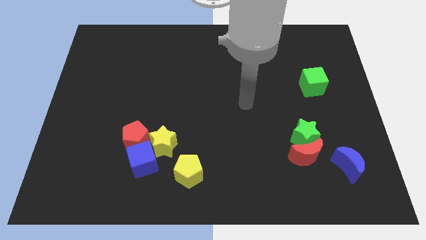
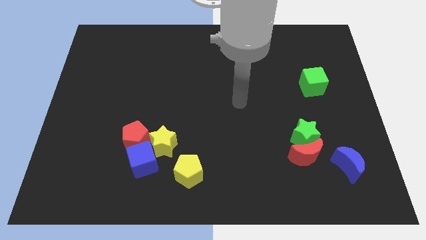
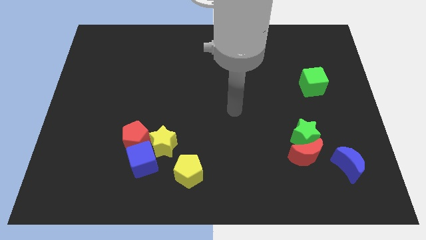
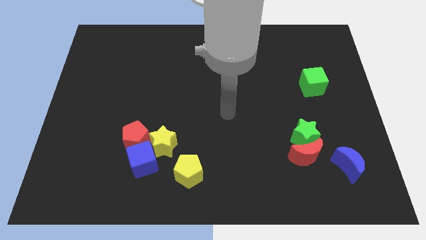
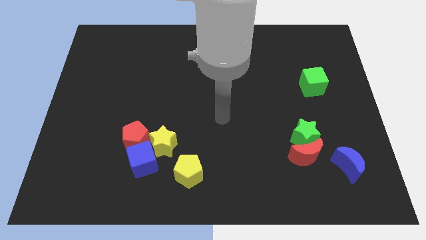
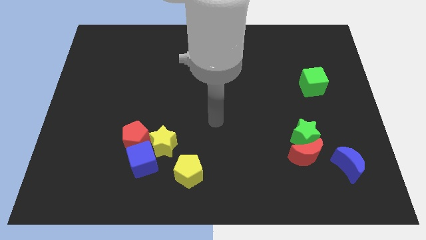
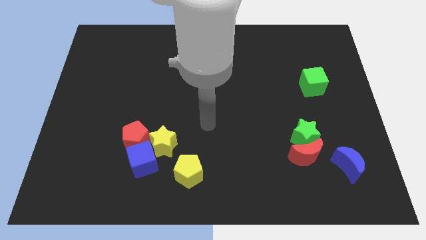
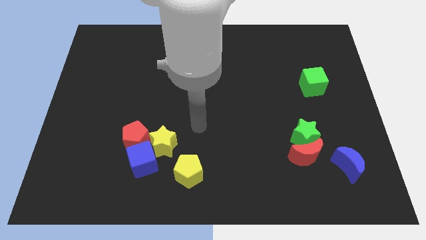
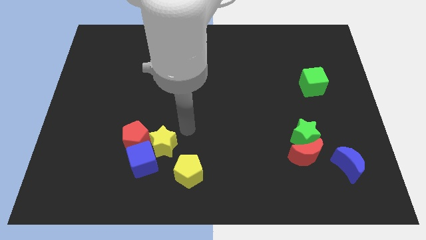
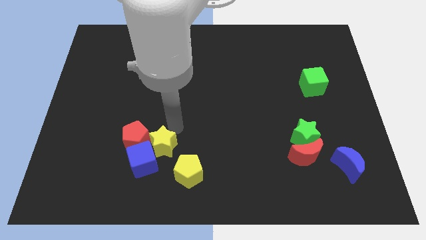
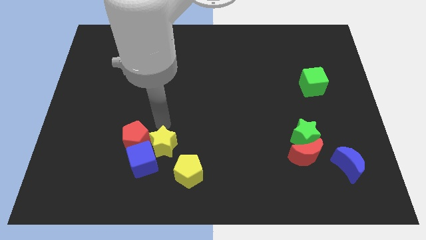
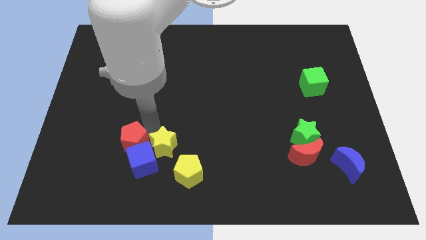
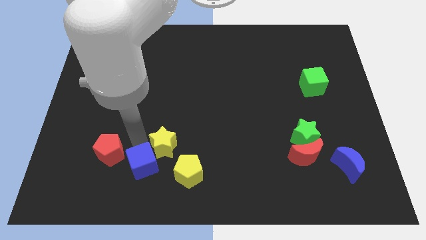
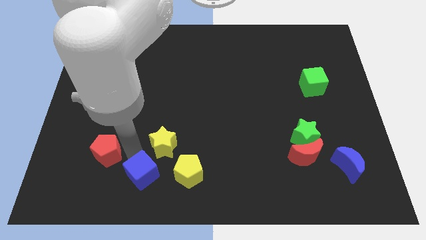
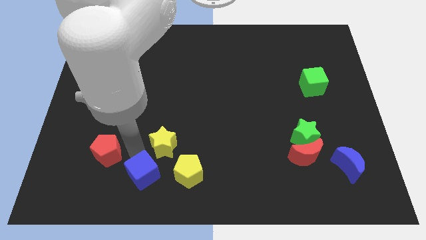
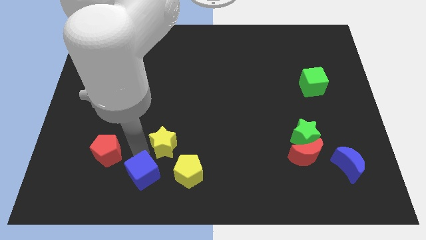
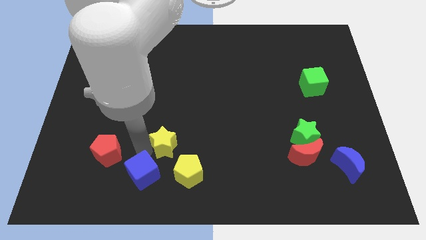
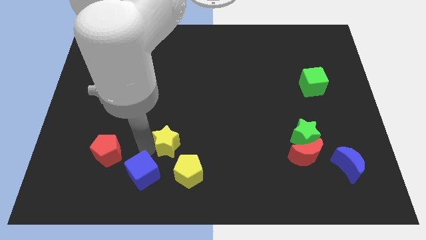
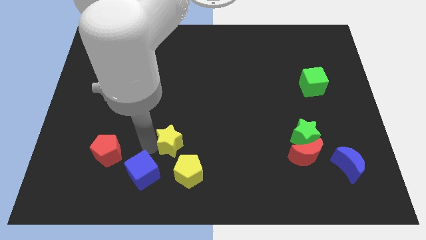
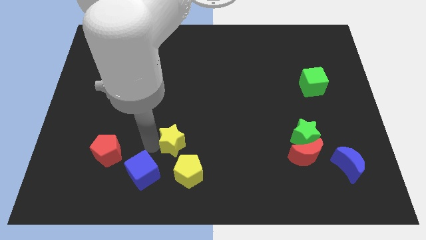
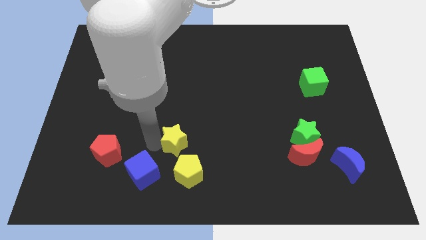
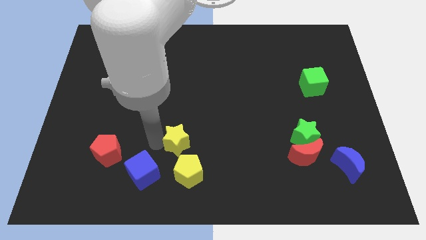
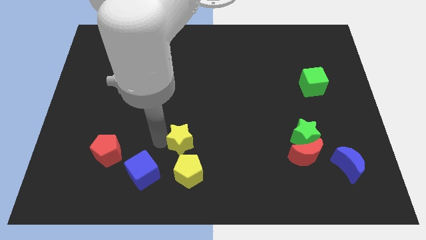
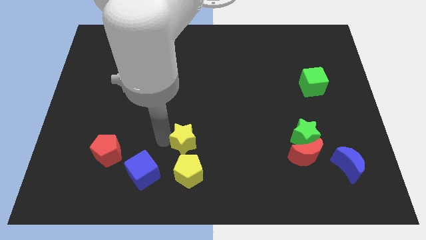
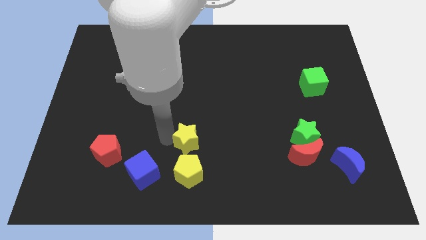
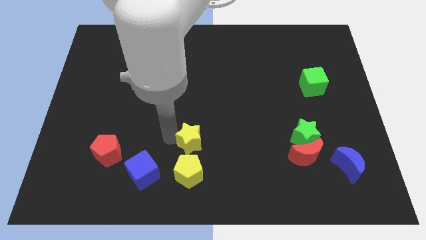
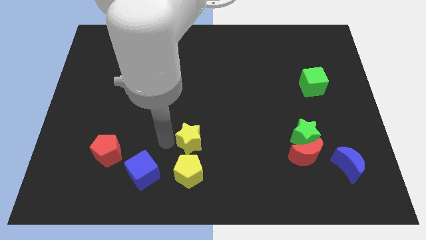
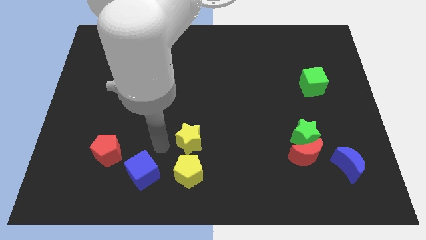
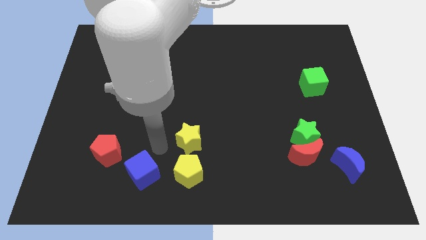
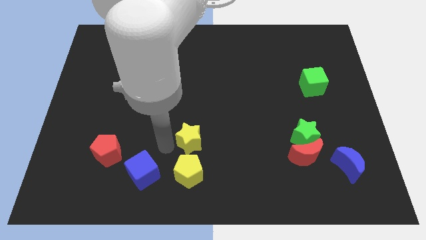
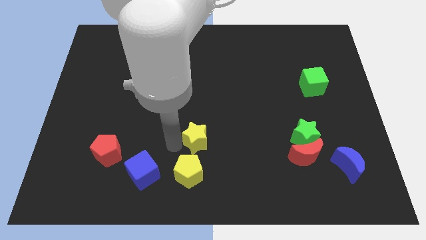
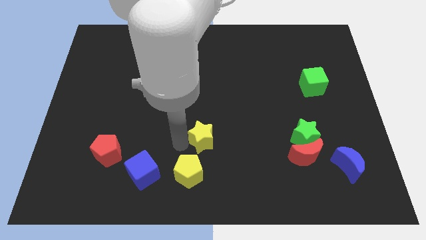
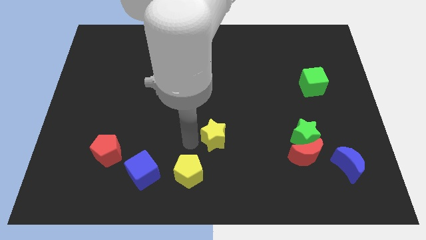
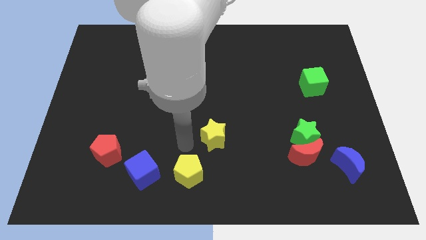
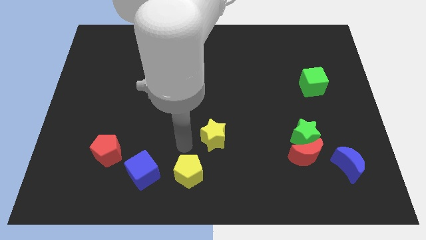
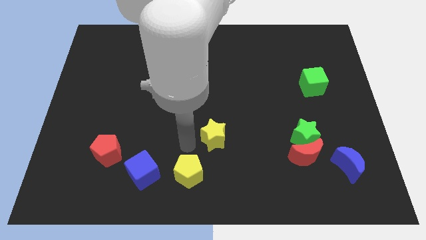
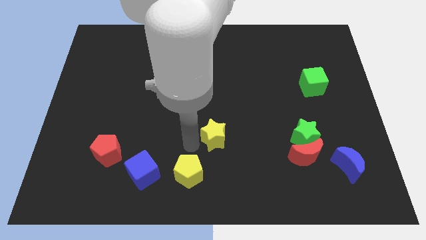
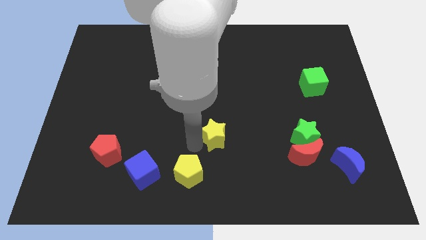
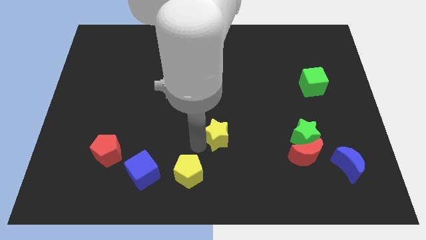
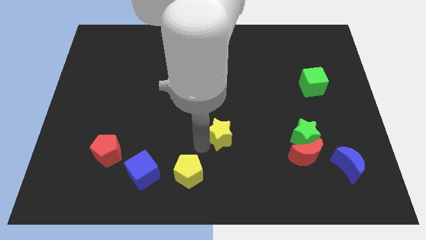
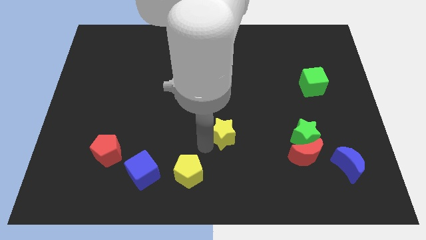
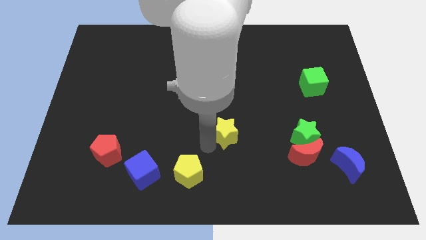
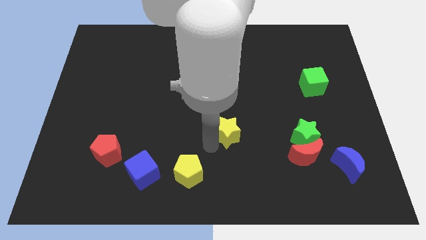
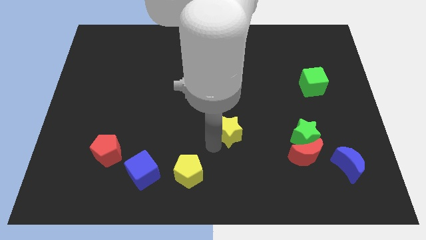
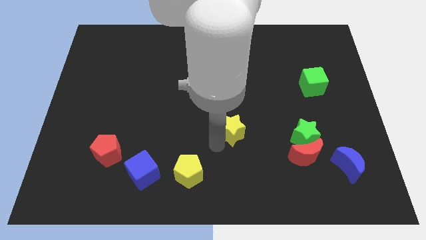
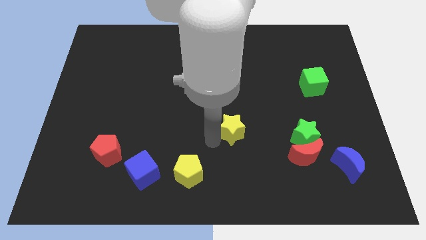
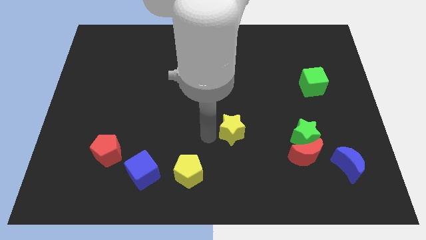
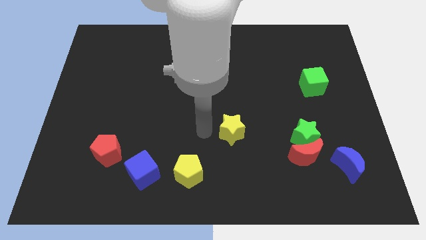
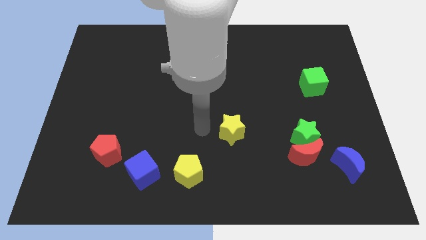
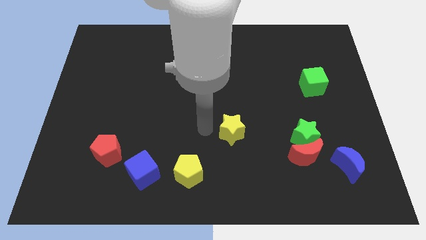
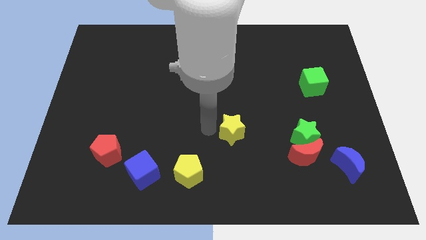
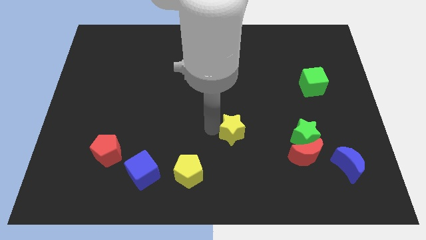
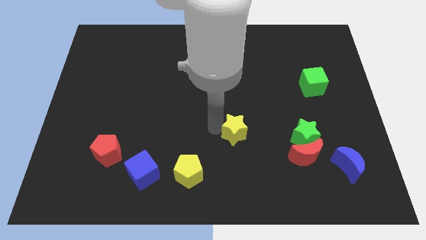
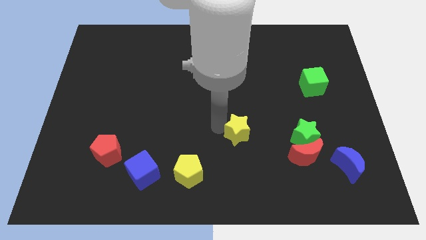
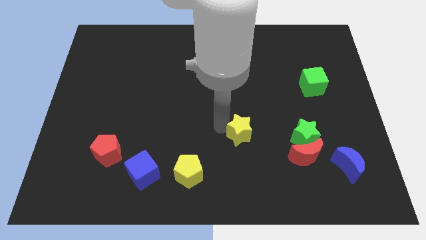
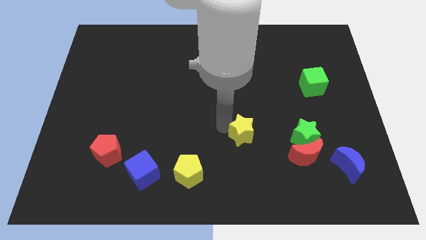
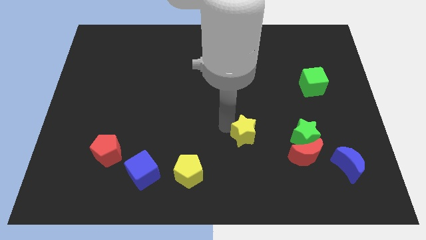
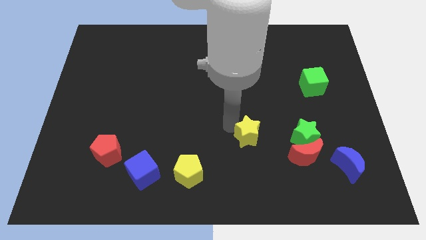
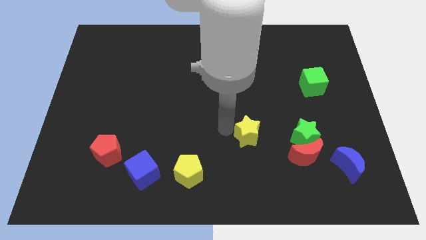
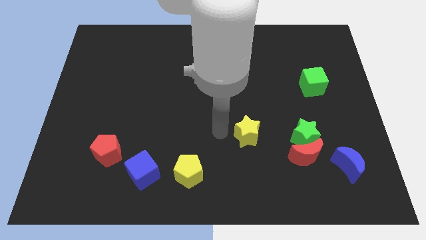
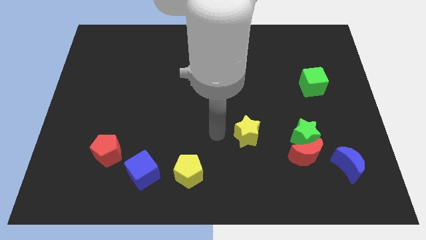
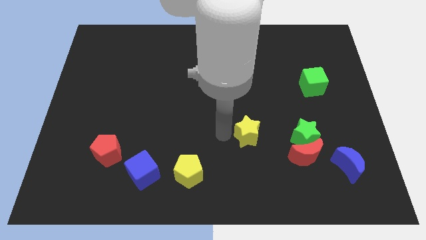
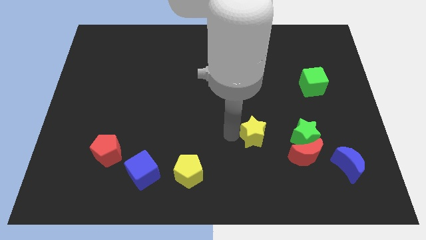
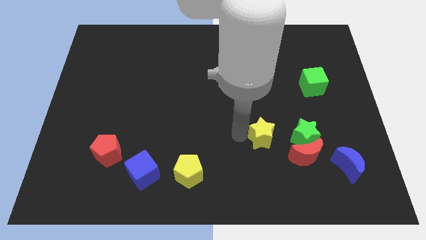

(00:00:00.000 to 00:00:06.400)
put the yellow star to the top left of the red moon
